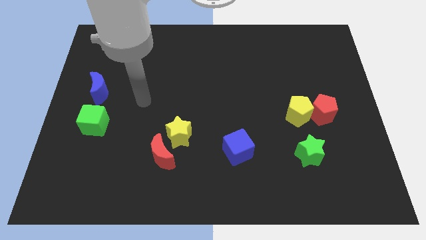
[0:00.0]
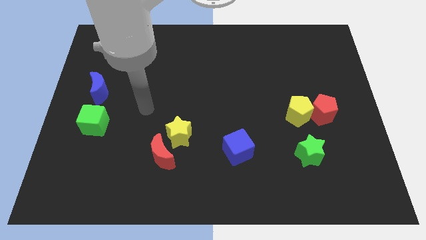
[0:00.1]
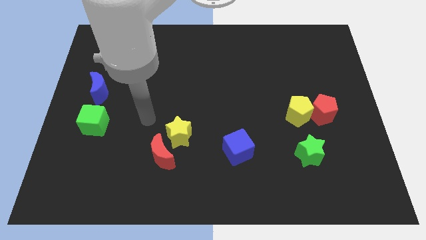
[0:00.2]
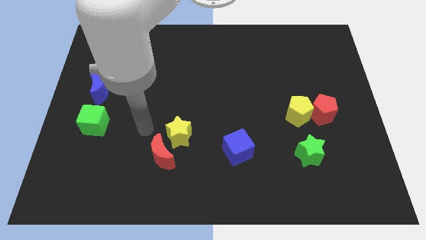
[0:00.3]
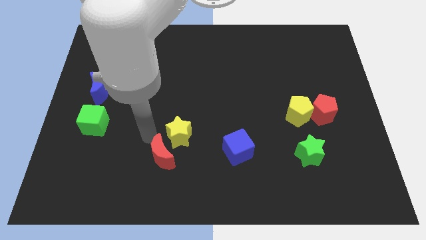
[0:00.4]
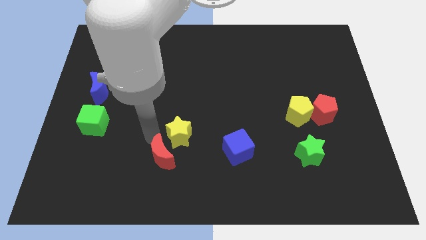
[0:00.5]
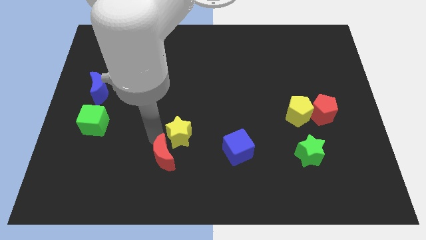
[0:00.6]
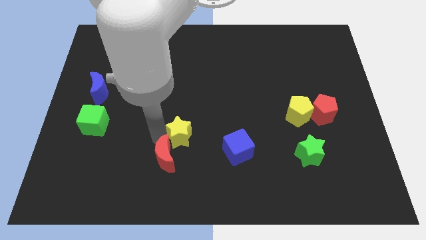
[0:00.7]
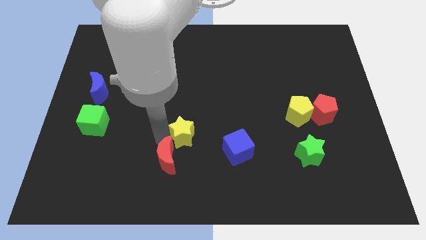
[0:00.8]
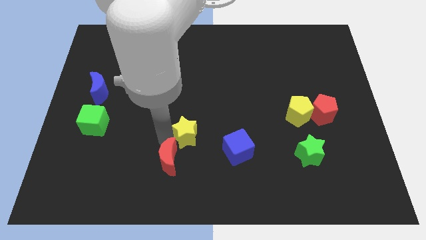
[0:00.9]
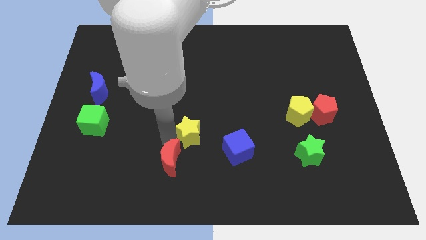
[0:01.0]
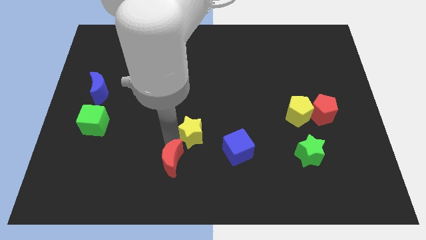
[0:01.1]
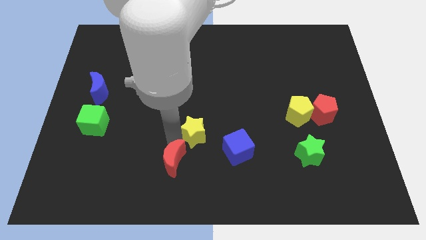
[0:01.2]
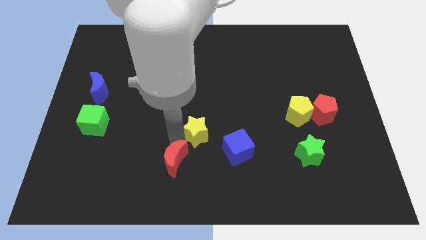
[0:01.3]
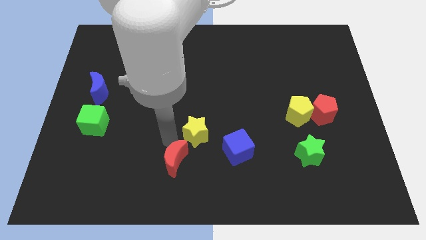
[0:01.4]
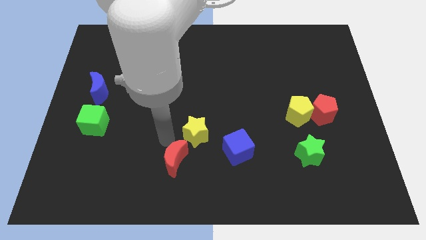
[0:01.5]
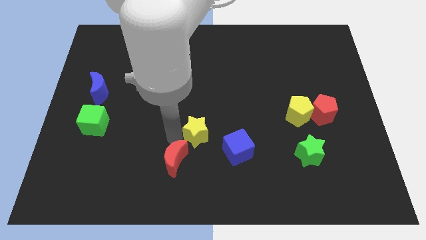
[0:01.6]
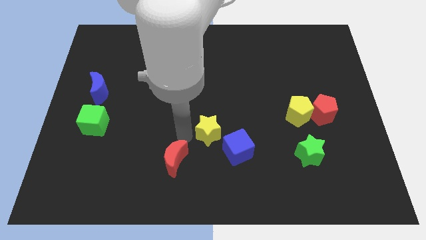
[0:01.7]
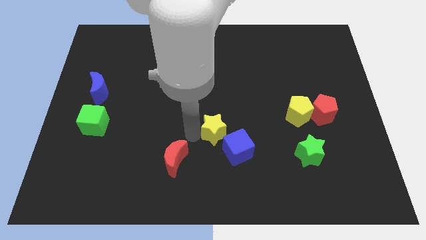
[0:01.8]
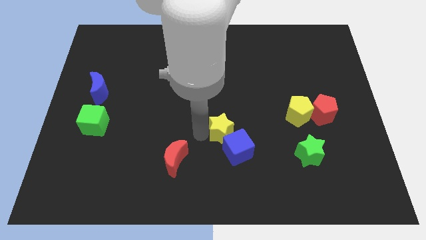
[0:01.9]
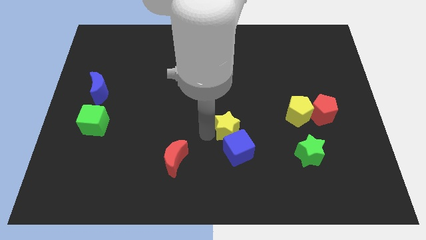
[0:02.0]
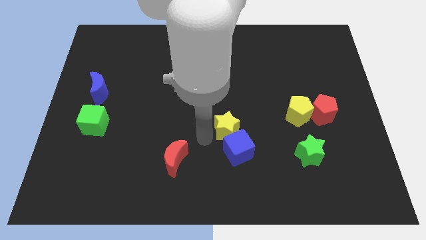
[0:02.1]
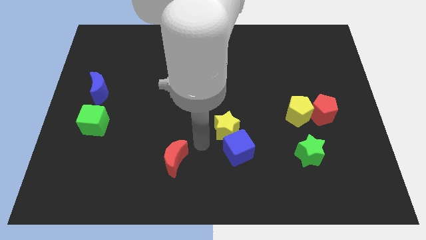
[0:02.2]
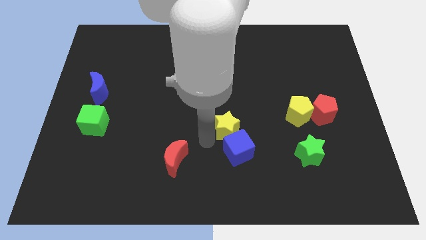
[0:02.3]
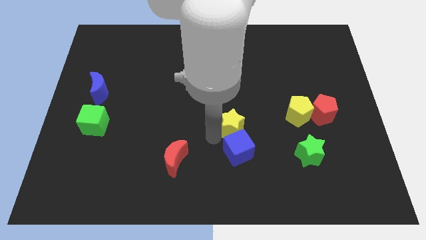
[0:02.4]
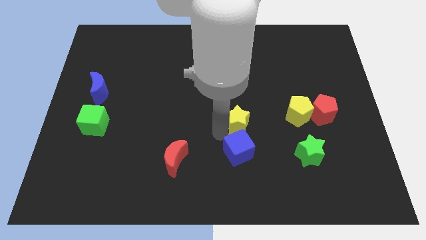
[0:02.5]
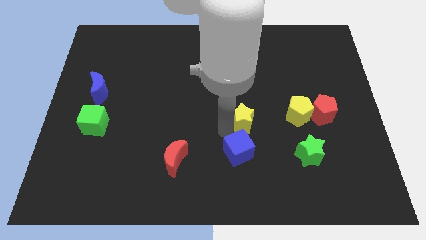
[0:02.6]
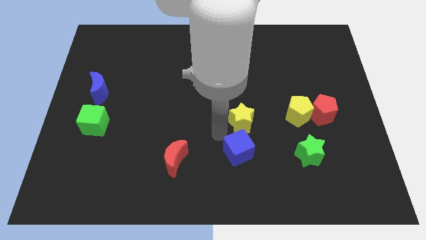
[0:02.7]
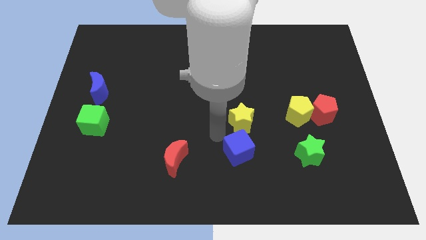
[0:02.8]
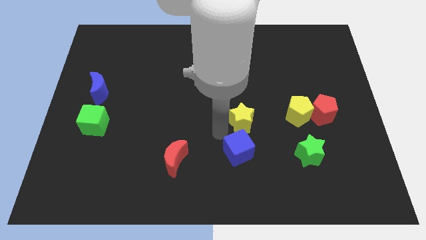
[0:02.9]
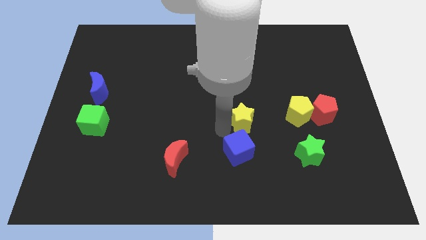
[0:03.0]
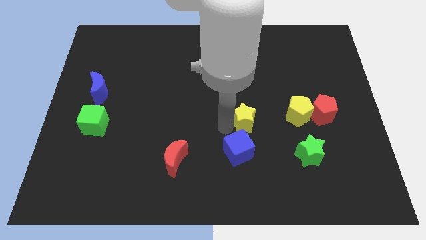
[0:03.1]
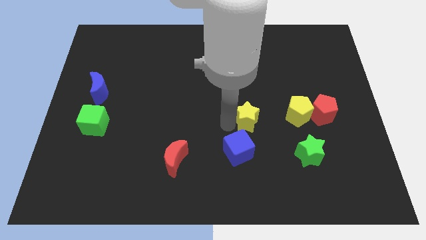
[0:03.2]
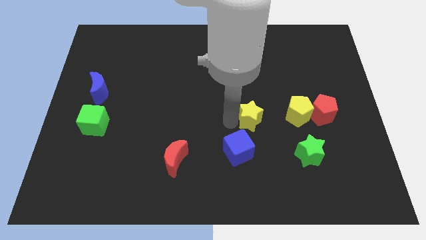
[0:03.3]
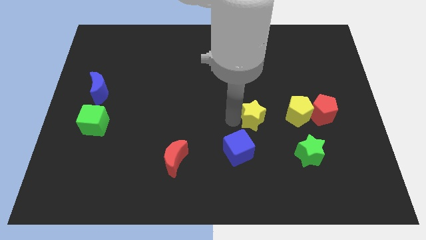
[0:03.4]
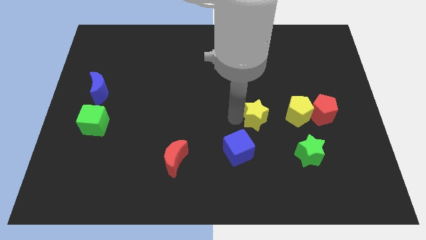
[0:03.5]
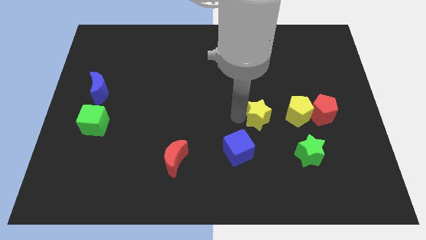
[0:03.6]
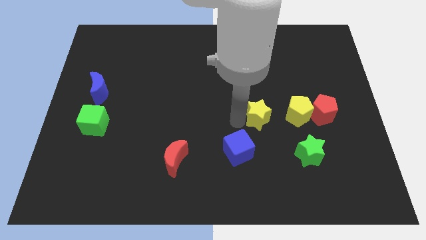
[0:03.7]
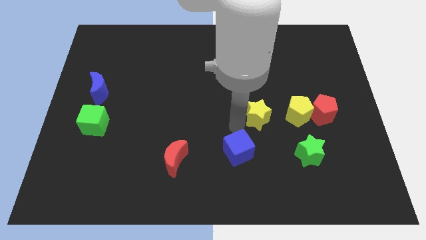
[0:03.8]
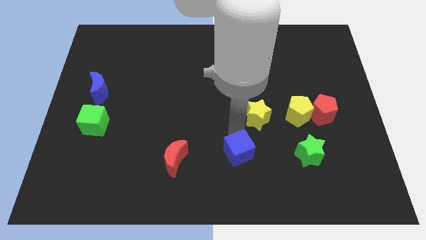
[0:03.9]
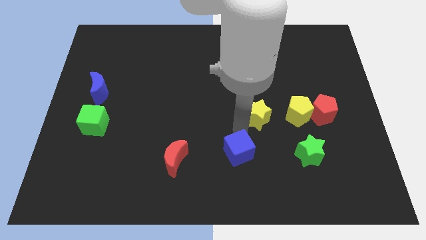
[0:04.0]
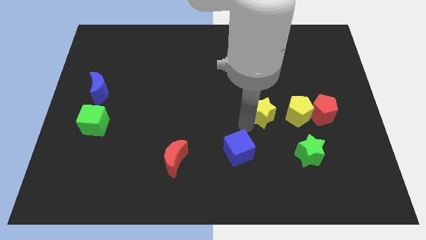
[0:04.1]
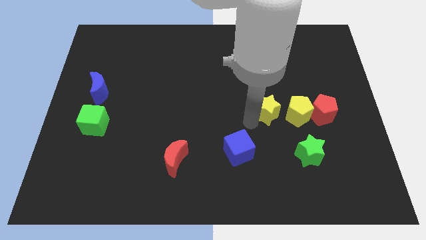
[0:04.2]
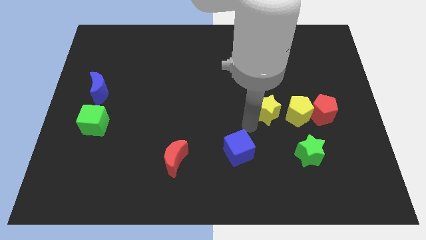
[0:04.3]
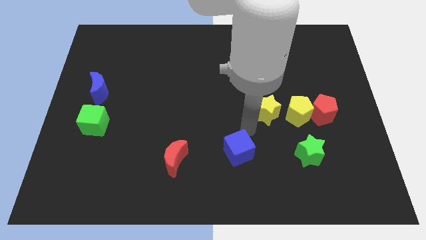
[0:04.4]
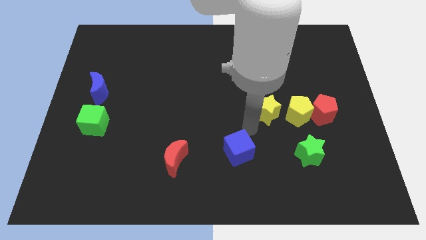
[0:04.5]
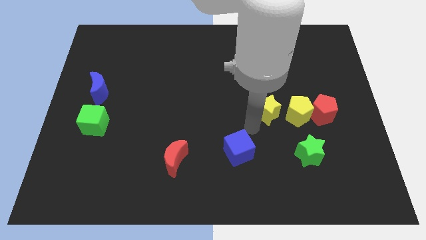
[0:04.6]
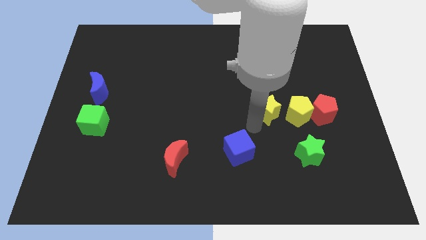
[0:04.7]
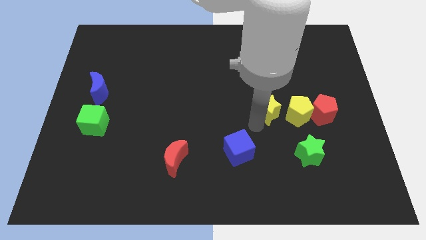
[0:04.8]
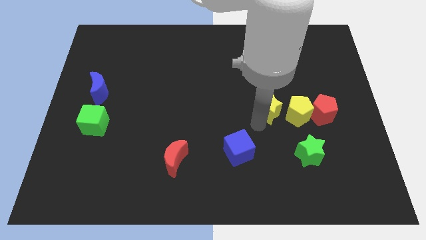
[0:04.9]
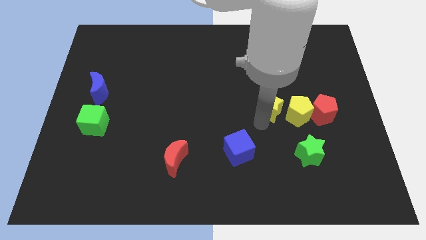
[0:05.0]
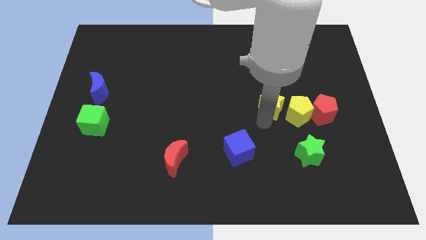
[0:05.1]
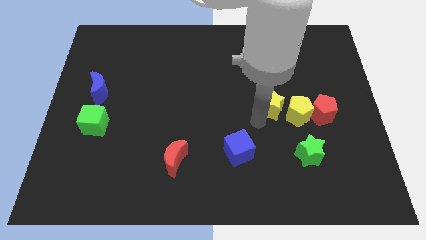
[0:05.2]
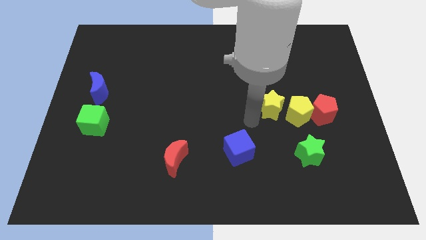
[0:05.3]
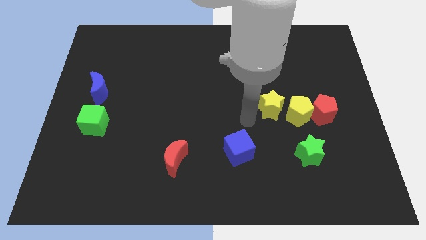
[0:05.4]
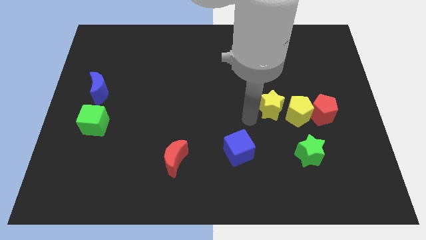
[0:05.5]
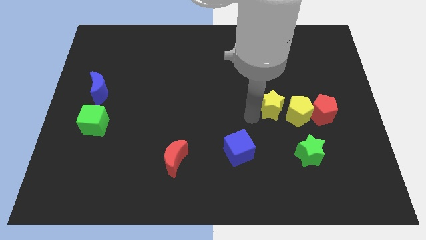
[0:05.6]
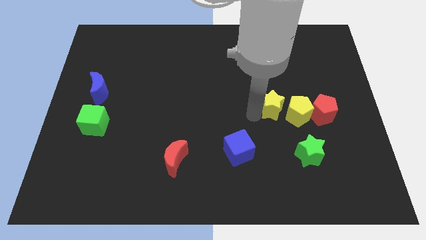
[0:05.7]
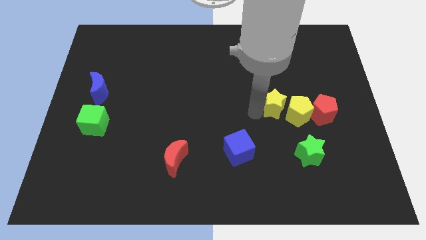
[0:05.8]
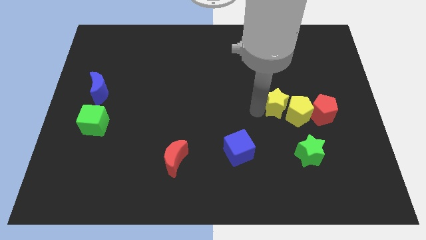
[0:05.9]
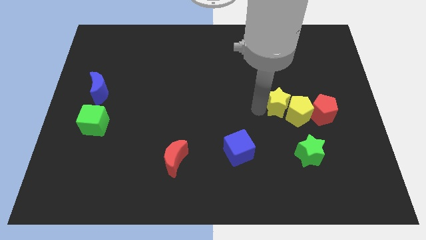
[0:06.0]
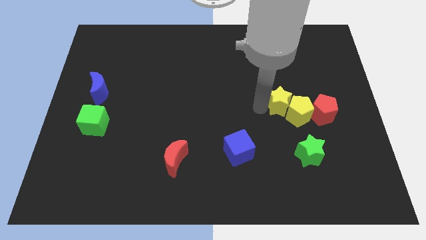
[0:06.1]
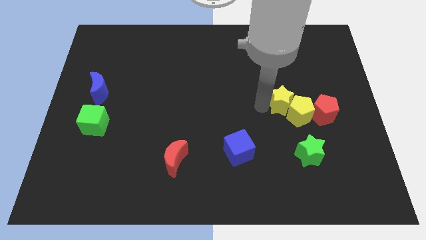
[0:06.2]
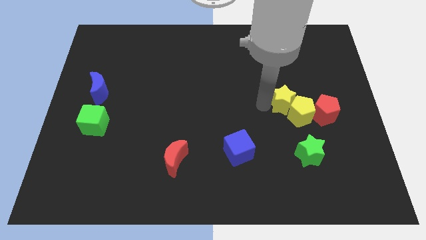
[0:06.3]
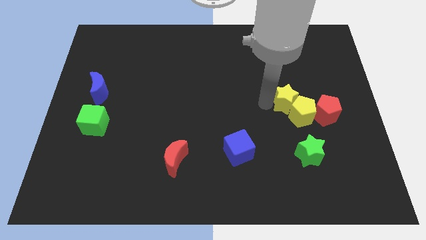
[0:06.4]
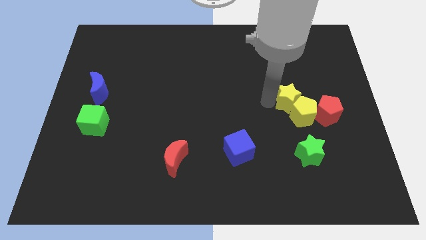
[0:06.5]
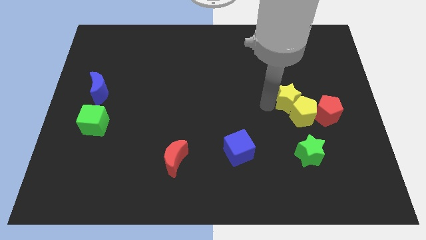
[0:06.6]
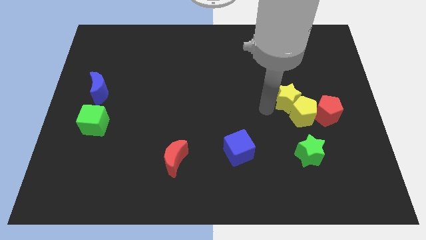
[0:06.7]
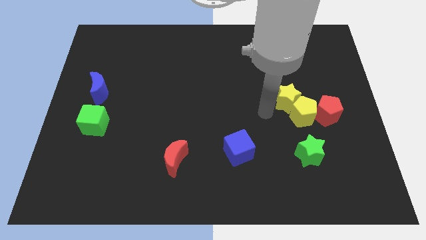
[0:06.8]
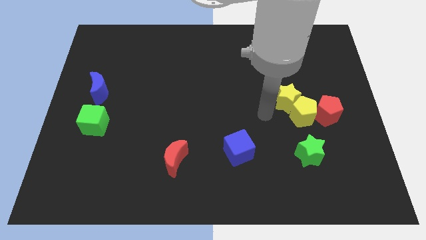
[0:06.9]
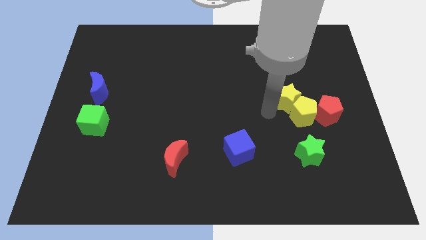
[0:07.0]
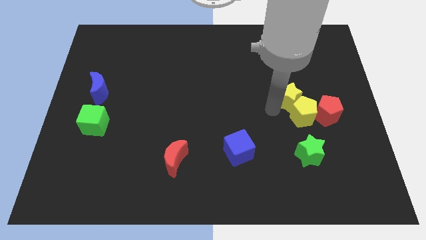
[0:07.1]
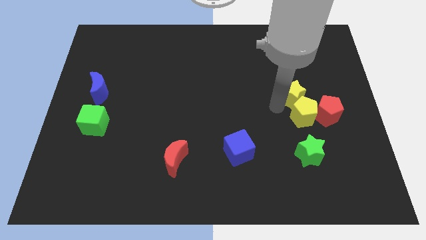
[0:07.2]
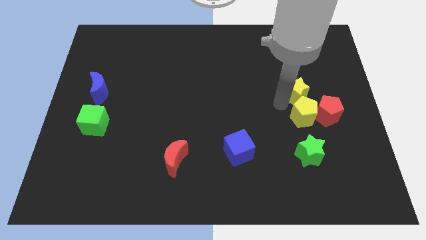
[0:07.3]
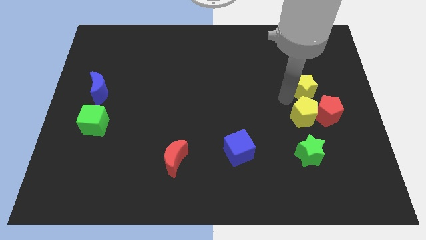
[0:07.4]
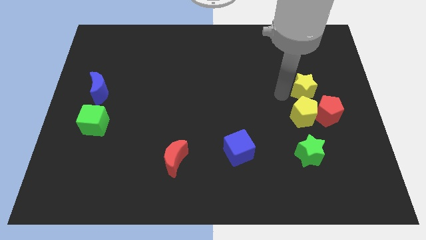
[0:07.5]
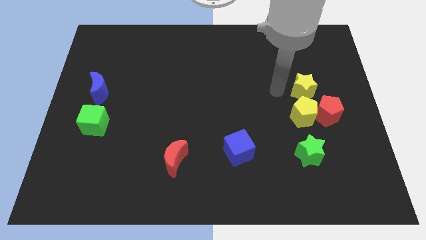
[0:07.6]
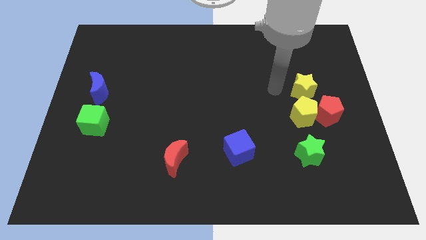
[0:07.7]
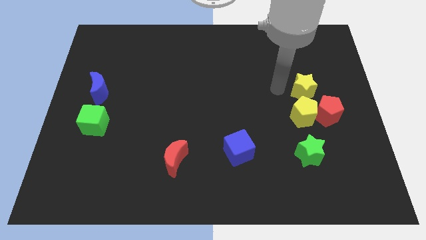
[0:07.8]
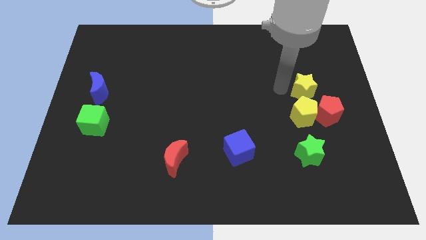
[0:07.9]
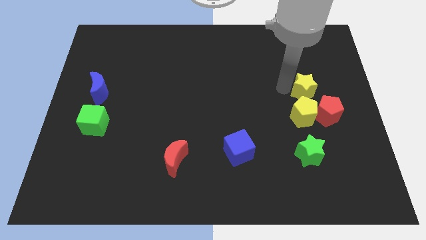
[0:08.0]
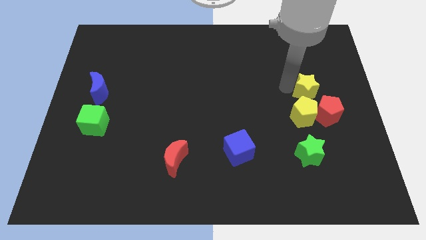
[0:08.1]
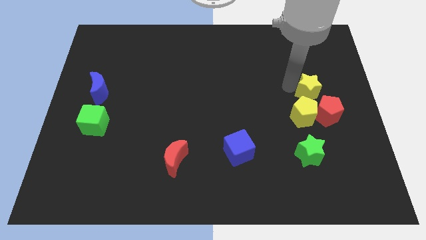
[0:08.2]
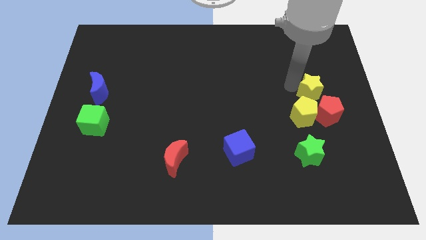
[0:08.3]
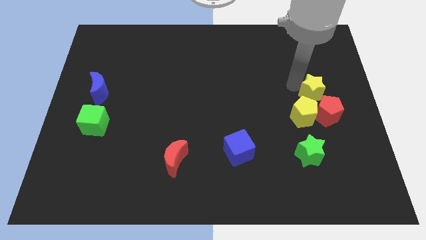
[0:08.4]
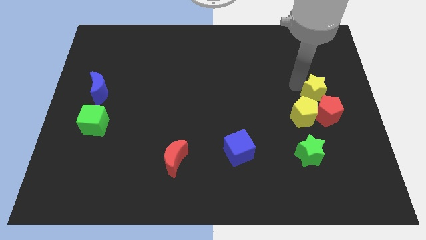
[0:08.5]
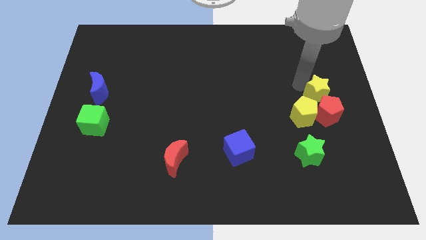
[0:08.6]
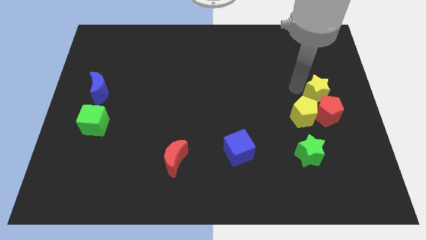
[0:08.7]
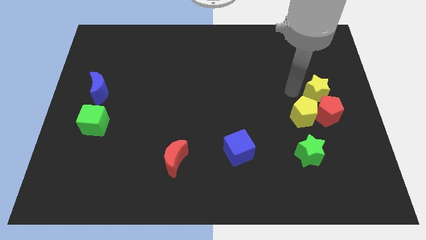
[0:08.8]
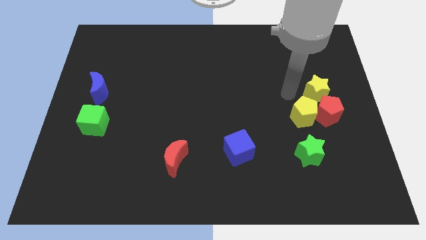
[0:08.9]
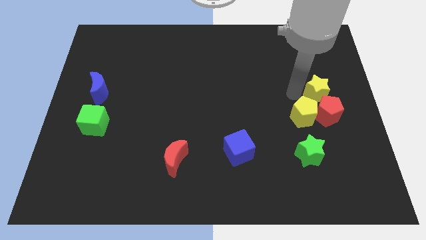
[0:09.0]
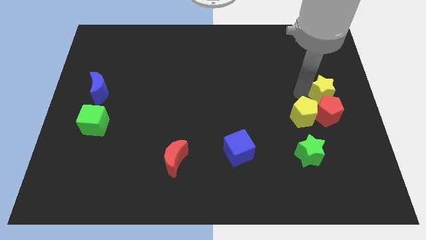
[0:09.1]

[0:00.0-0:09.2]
move the yellow star to the center right
